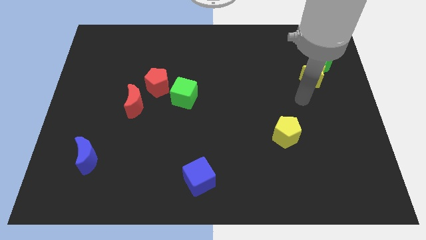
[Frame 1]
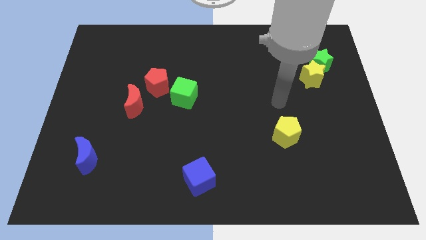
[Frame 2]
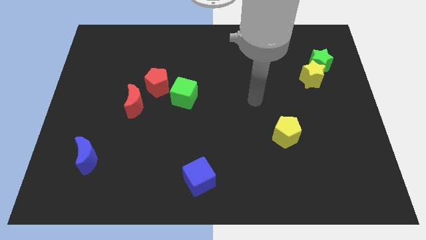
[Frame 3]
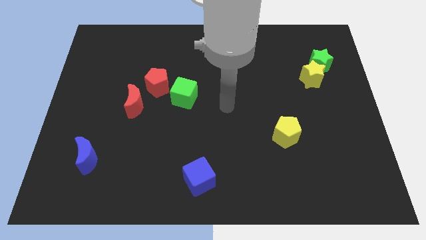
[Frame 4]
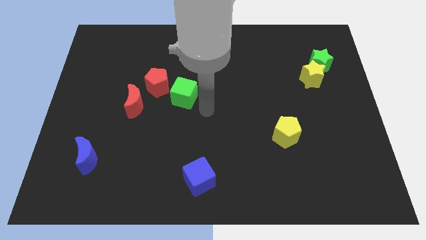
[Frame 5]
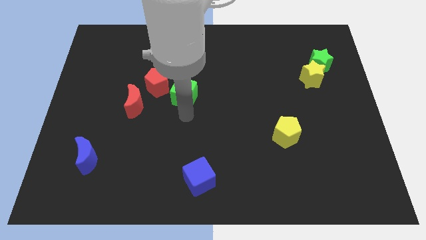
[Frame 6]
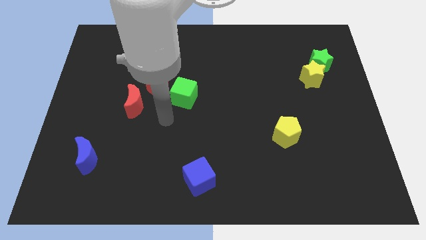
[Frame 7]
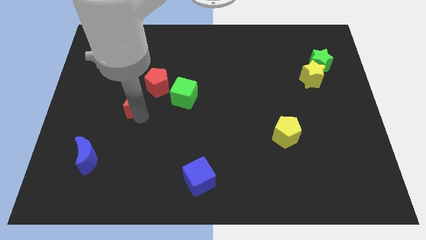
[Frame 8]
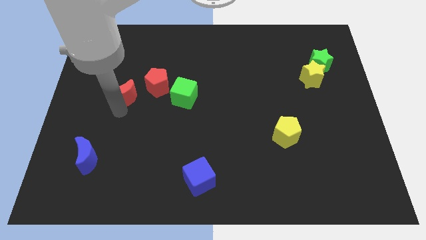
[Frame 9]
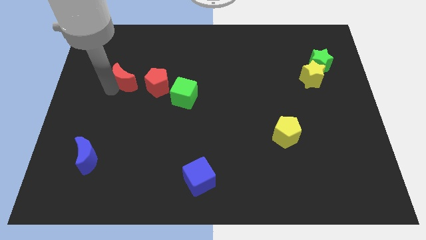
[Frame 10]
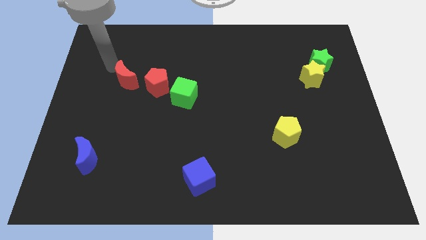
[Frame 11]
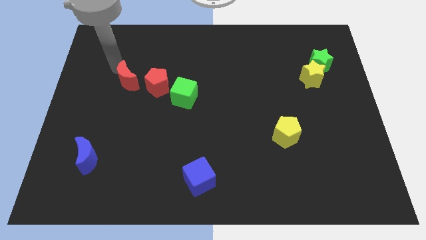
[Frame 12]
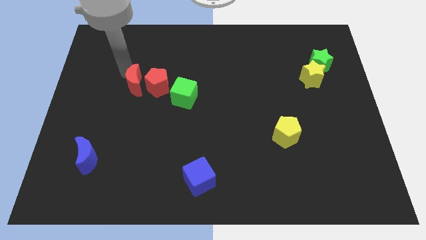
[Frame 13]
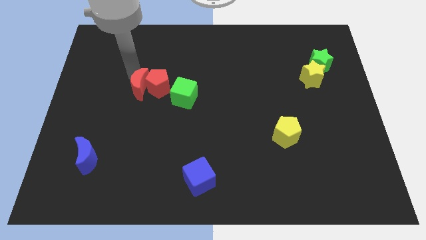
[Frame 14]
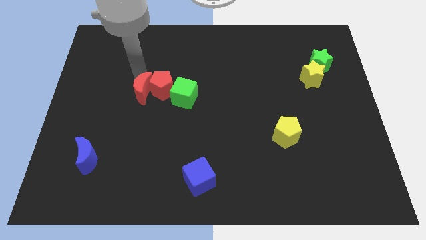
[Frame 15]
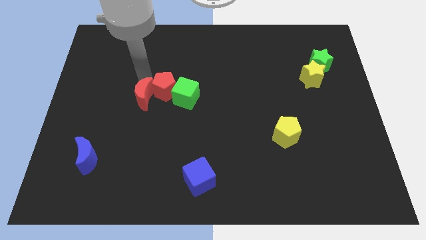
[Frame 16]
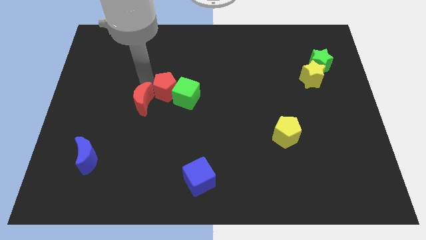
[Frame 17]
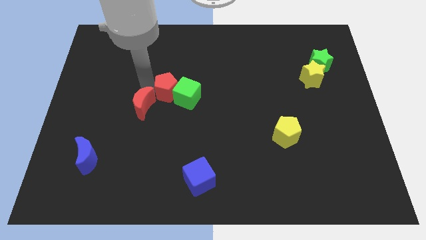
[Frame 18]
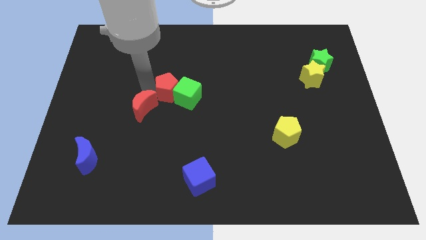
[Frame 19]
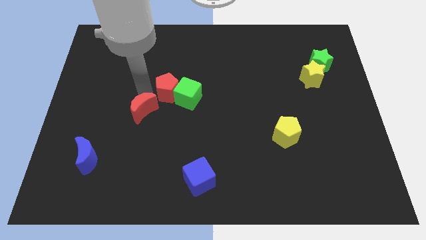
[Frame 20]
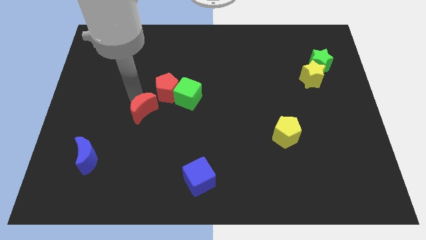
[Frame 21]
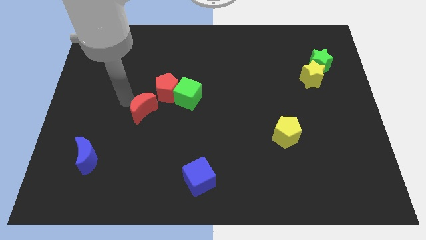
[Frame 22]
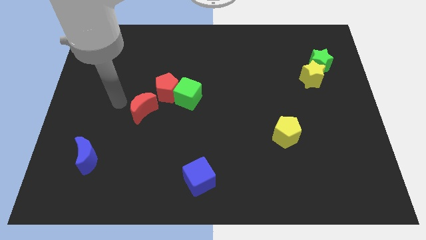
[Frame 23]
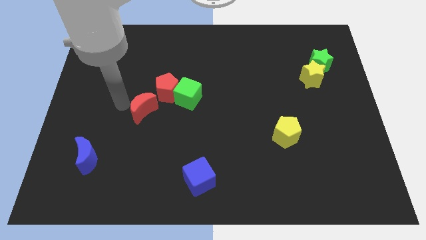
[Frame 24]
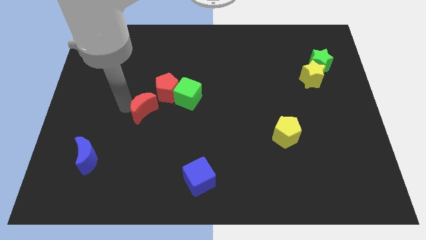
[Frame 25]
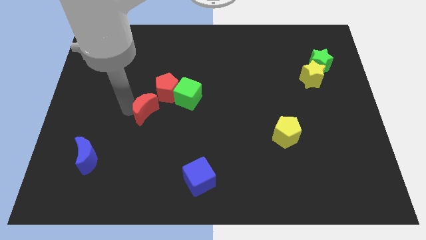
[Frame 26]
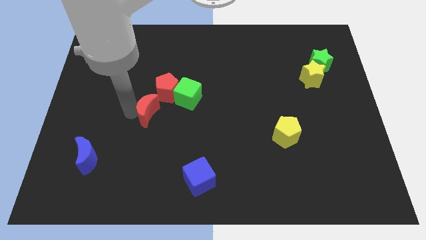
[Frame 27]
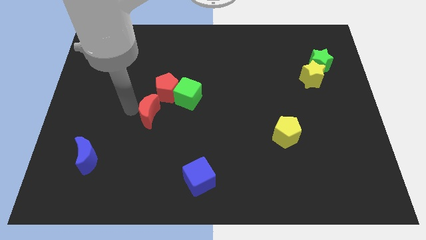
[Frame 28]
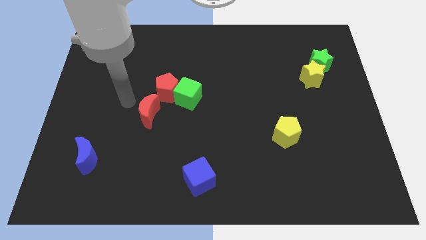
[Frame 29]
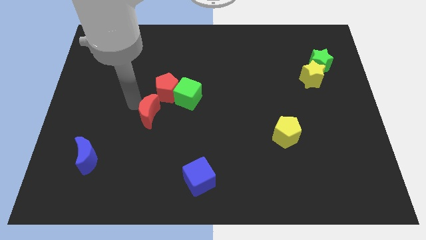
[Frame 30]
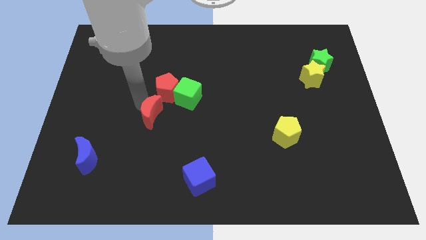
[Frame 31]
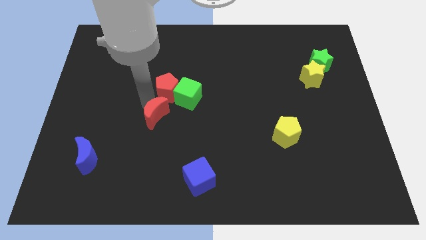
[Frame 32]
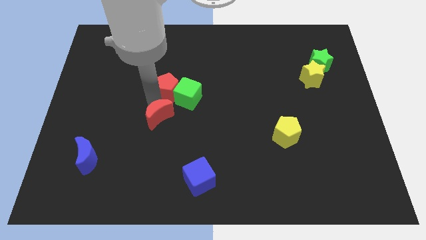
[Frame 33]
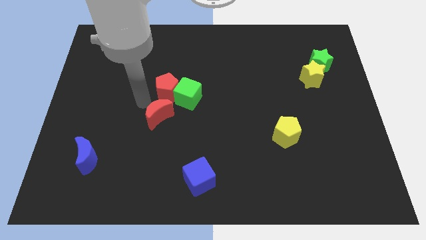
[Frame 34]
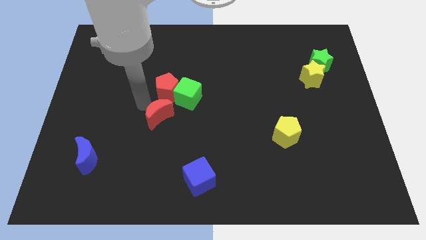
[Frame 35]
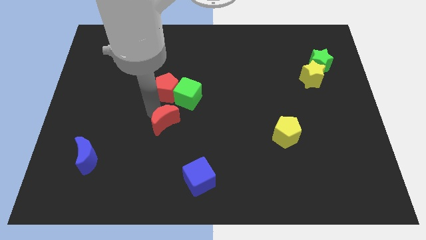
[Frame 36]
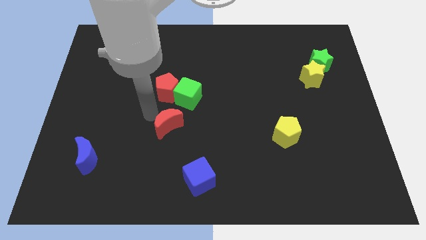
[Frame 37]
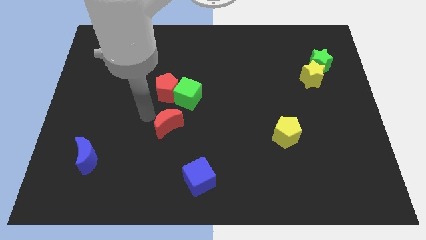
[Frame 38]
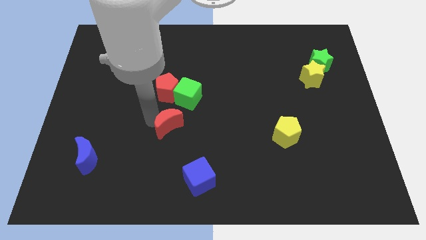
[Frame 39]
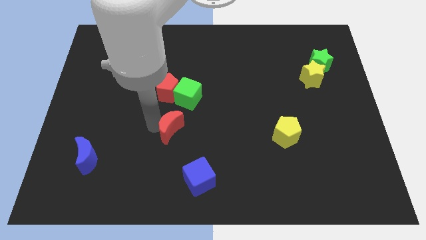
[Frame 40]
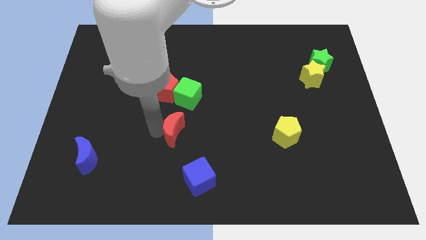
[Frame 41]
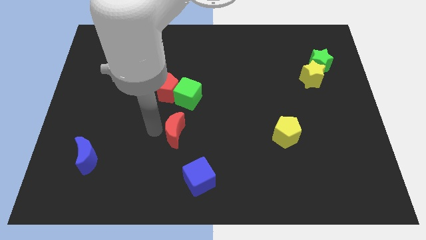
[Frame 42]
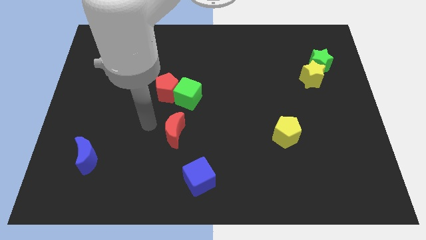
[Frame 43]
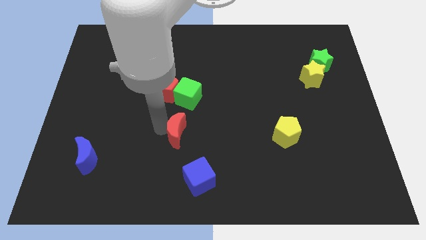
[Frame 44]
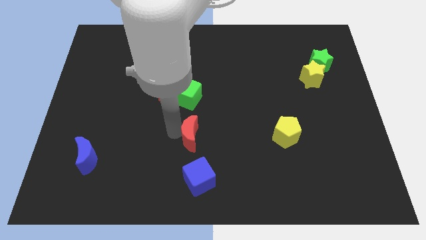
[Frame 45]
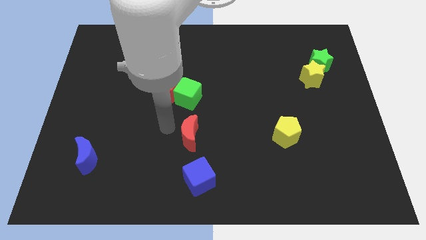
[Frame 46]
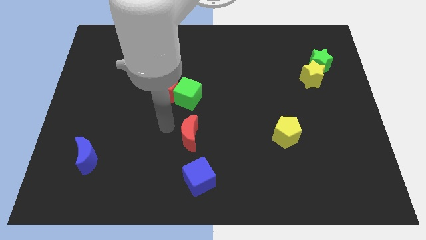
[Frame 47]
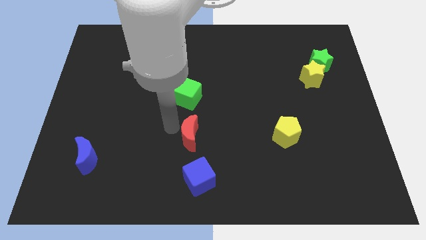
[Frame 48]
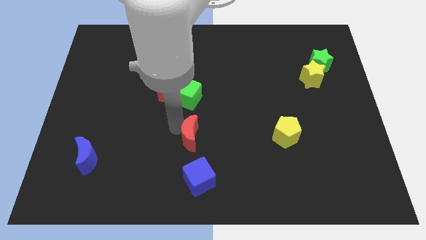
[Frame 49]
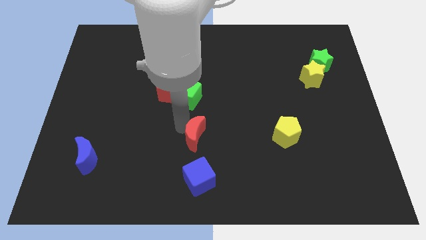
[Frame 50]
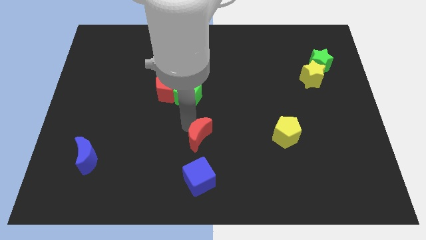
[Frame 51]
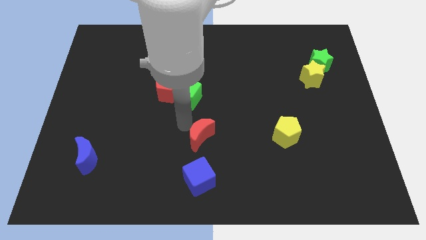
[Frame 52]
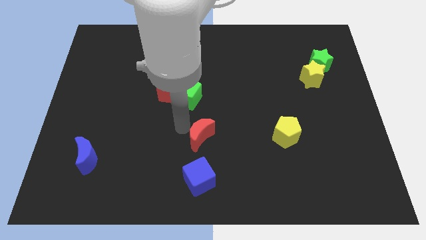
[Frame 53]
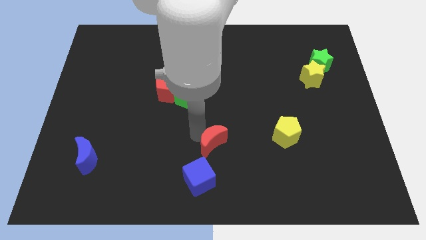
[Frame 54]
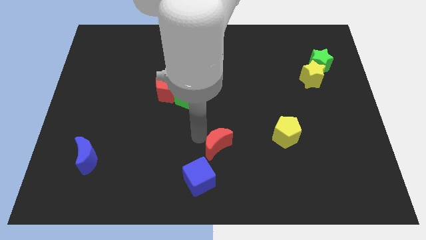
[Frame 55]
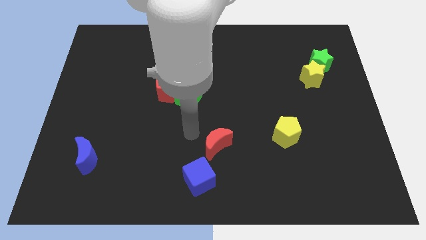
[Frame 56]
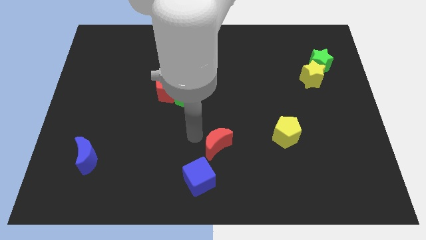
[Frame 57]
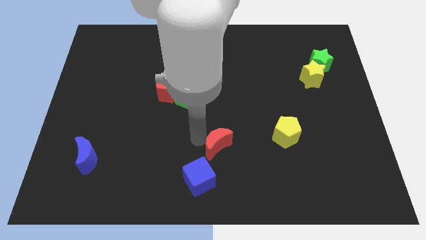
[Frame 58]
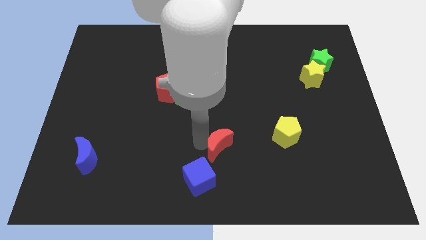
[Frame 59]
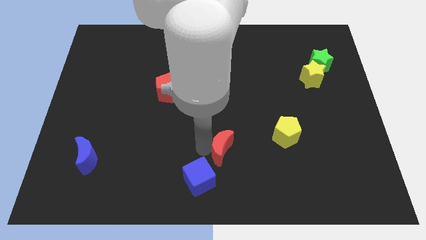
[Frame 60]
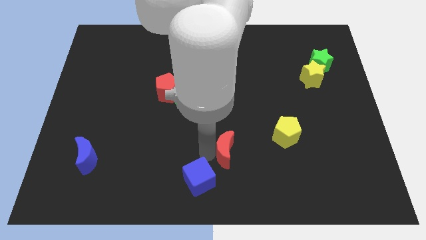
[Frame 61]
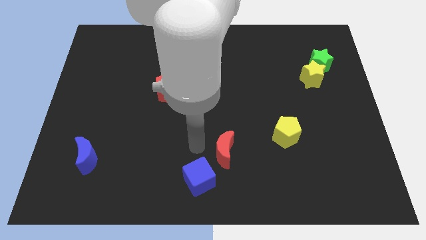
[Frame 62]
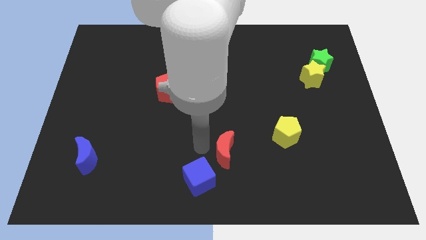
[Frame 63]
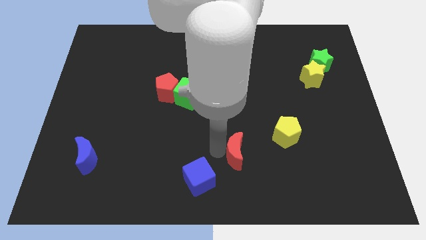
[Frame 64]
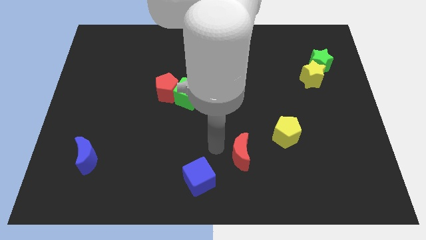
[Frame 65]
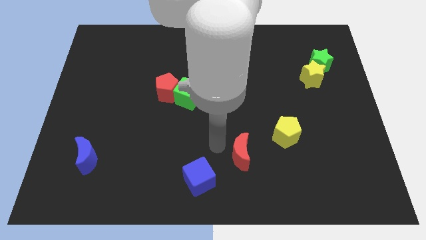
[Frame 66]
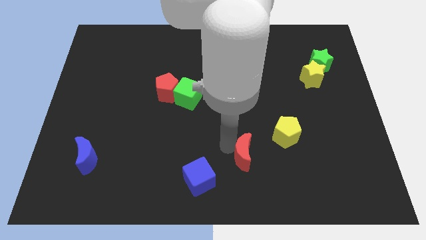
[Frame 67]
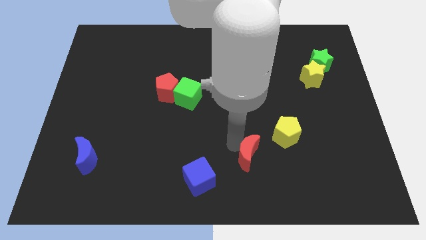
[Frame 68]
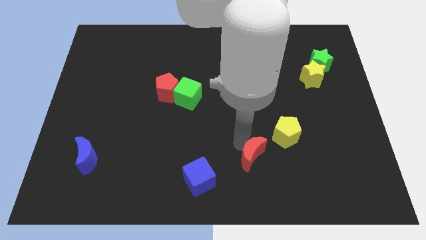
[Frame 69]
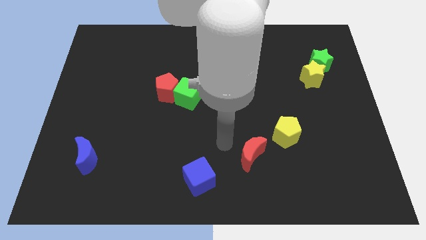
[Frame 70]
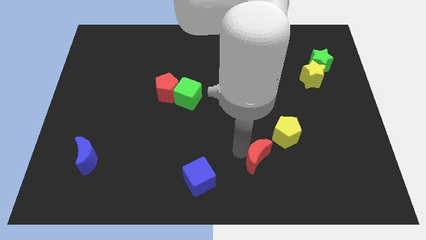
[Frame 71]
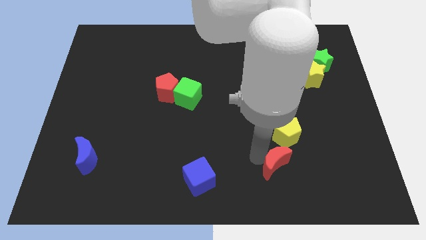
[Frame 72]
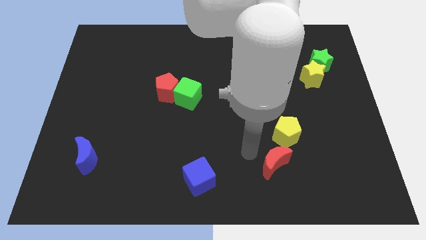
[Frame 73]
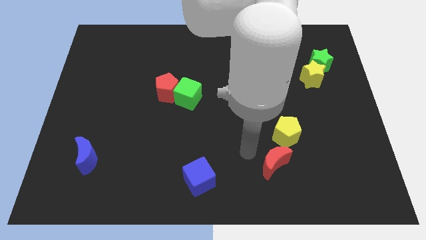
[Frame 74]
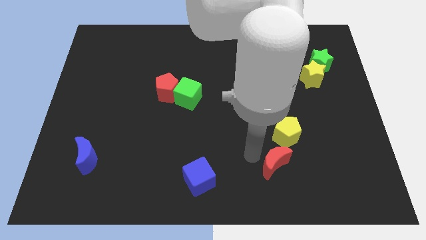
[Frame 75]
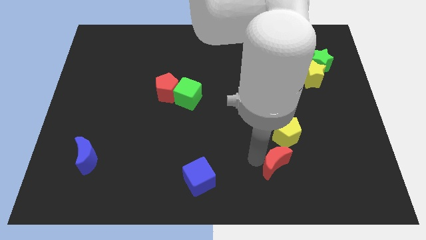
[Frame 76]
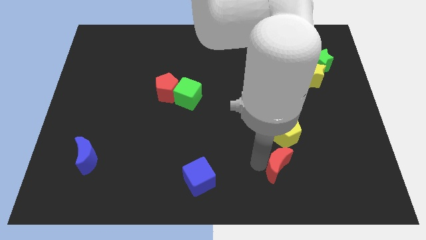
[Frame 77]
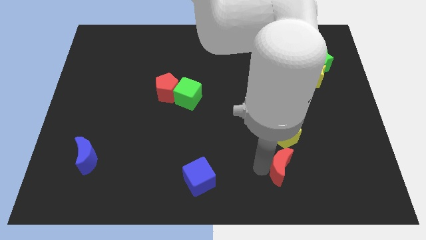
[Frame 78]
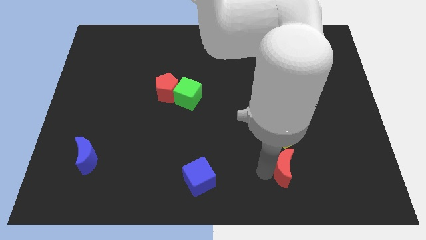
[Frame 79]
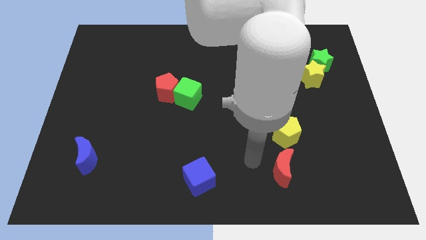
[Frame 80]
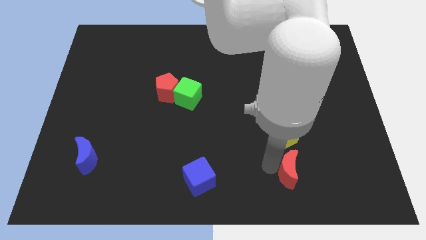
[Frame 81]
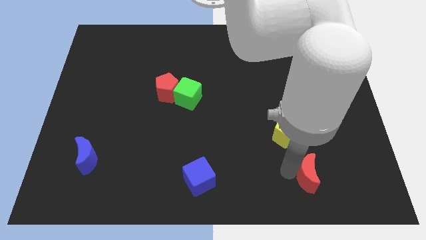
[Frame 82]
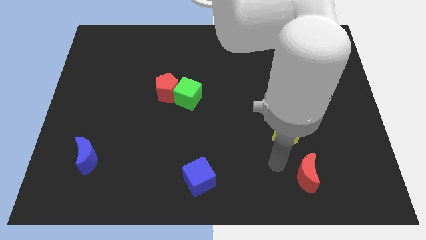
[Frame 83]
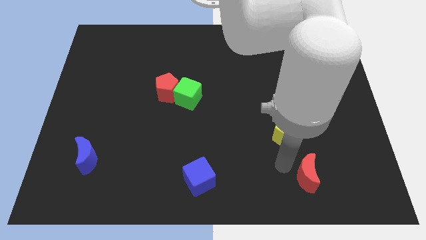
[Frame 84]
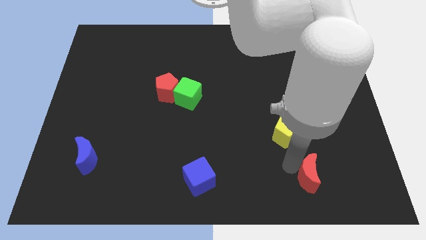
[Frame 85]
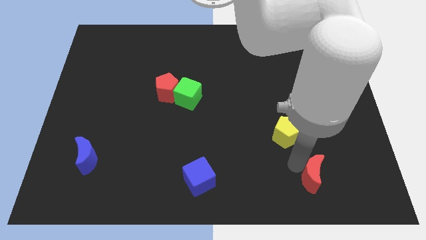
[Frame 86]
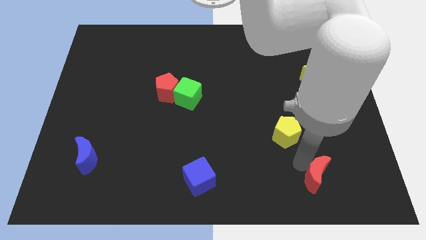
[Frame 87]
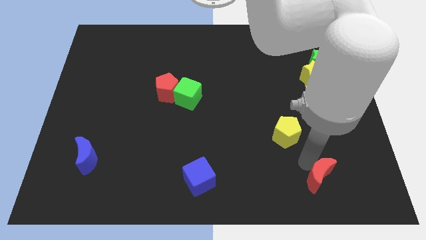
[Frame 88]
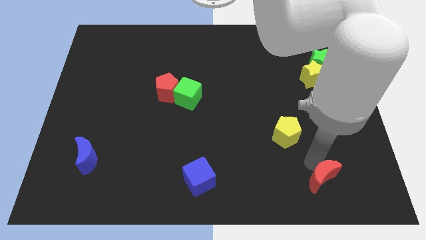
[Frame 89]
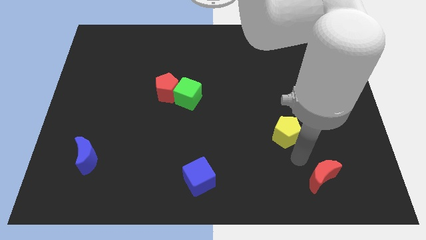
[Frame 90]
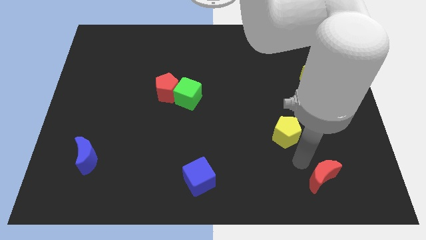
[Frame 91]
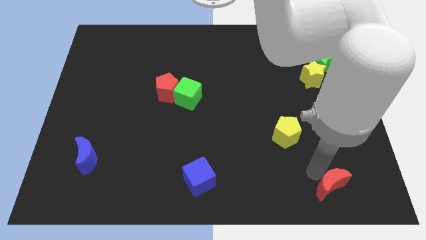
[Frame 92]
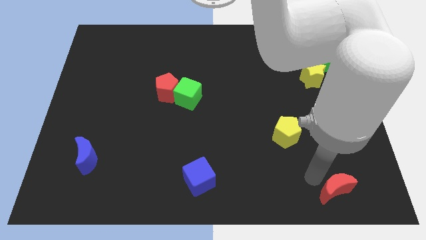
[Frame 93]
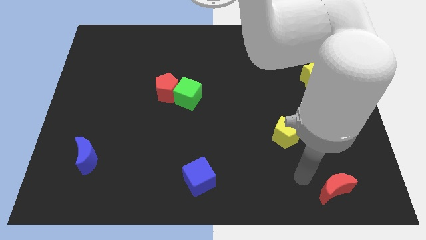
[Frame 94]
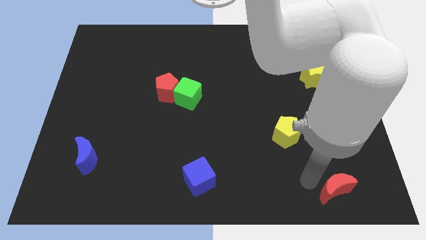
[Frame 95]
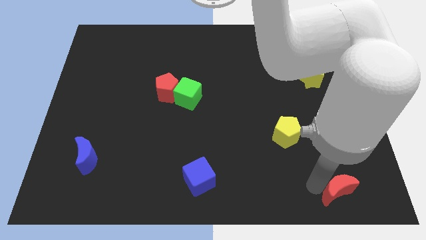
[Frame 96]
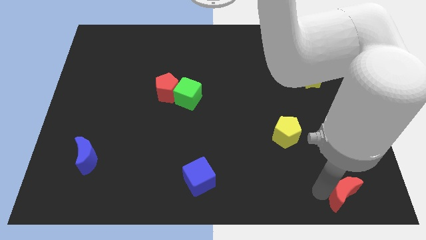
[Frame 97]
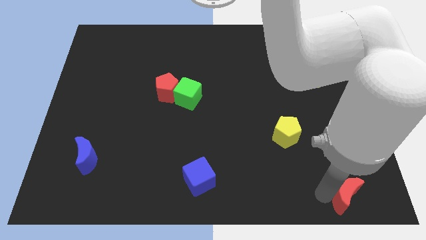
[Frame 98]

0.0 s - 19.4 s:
push the red moon to the bottom right
